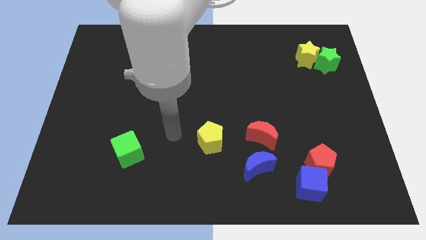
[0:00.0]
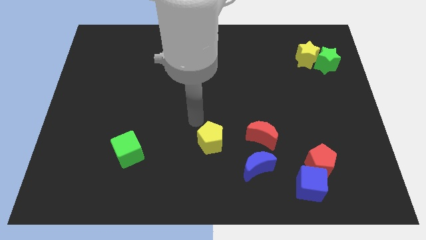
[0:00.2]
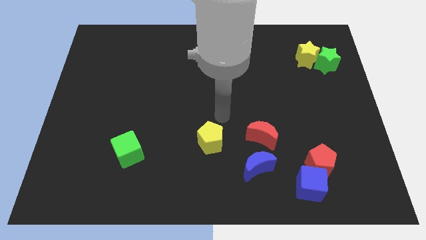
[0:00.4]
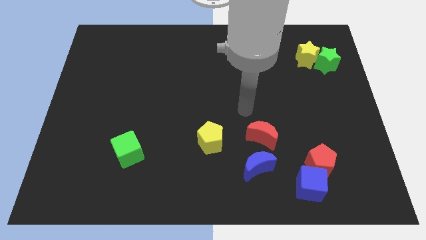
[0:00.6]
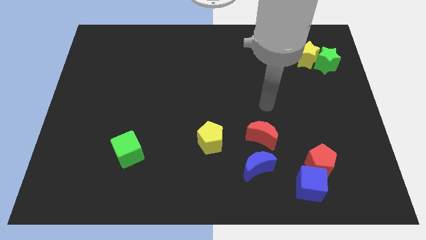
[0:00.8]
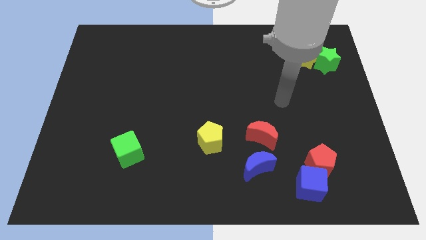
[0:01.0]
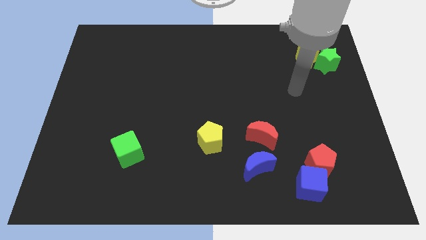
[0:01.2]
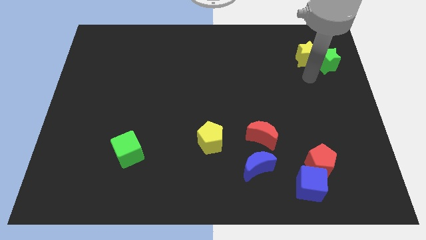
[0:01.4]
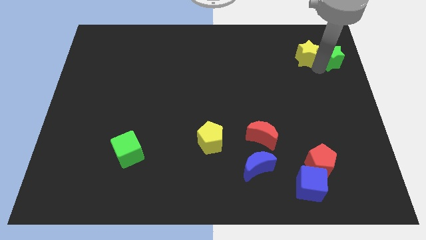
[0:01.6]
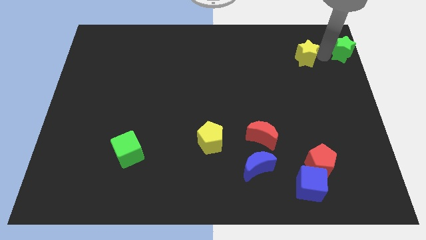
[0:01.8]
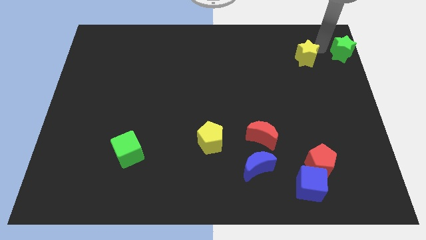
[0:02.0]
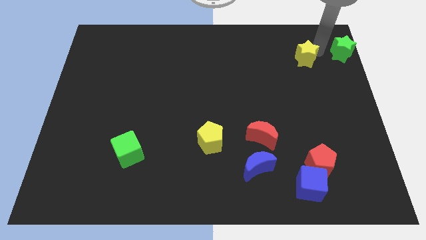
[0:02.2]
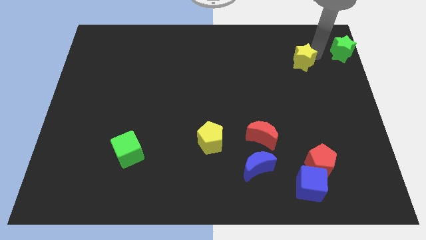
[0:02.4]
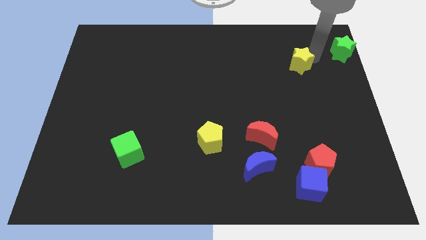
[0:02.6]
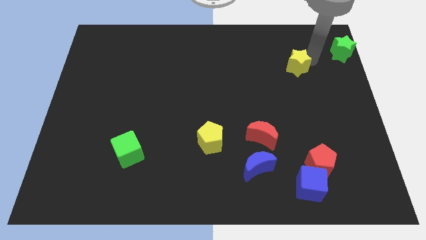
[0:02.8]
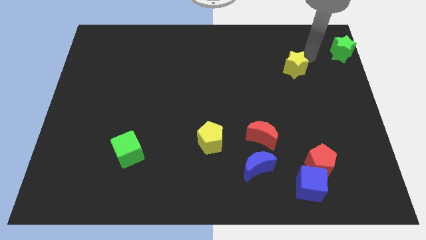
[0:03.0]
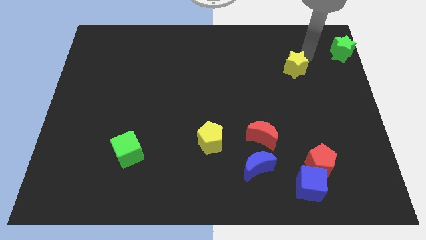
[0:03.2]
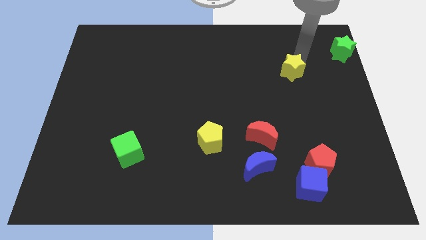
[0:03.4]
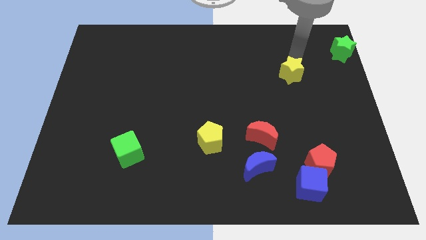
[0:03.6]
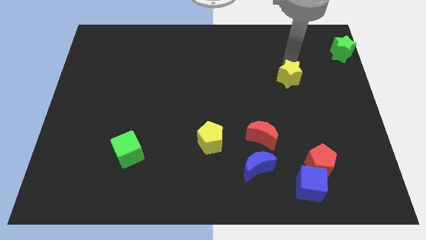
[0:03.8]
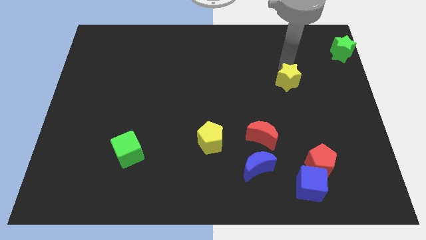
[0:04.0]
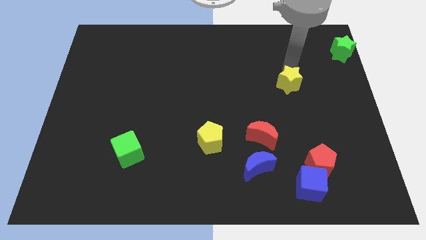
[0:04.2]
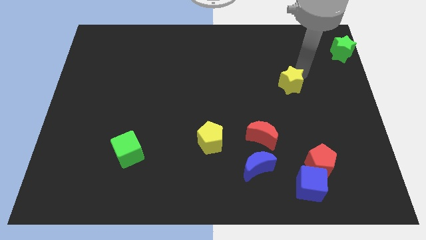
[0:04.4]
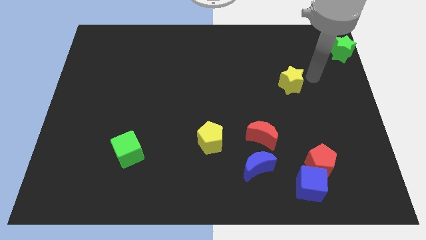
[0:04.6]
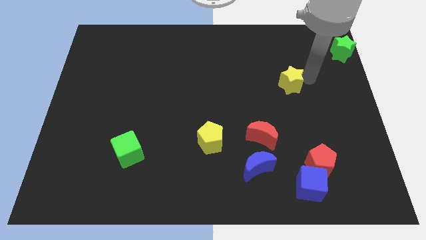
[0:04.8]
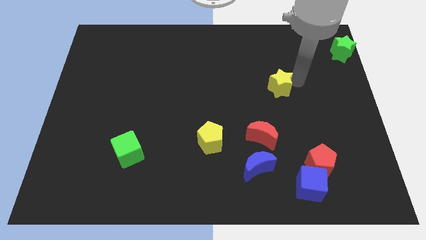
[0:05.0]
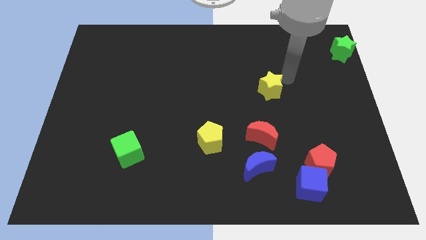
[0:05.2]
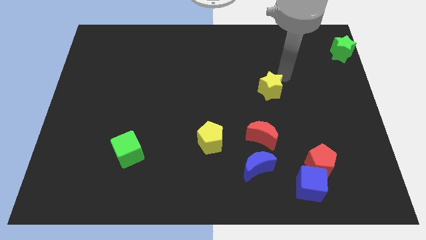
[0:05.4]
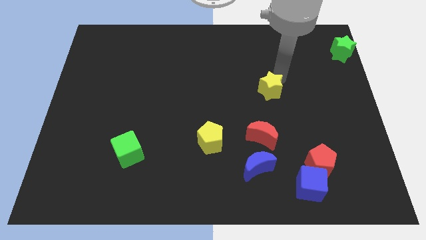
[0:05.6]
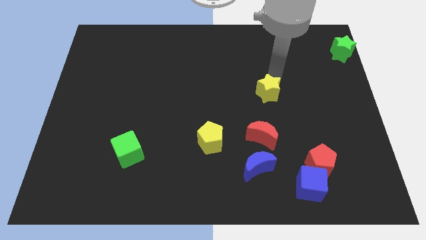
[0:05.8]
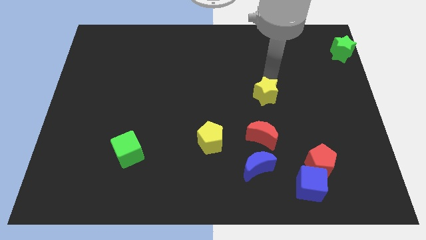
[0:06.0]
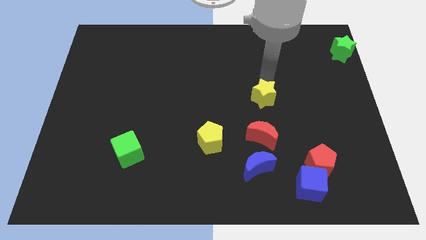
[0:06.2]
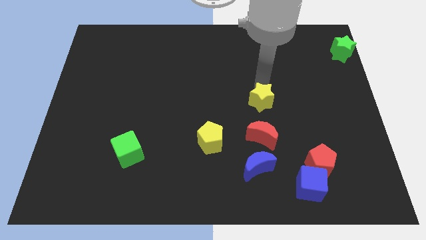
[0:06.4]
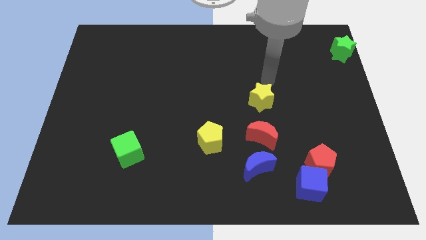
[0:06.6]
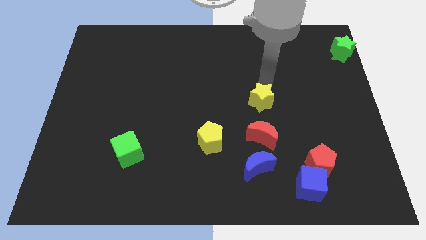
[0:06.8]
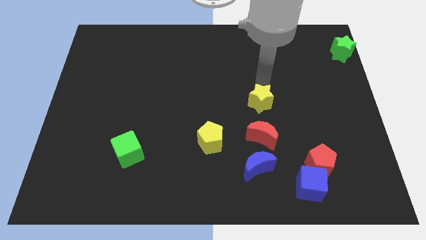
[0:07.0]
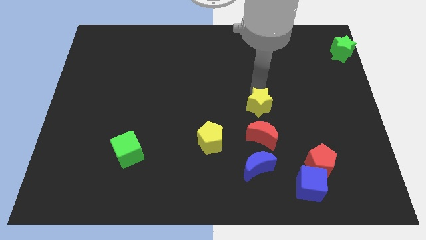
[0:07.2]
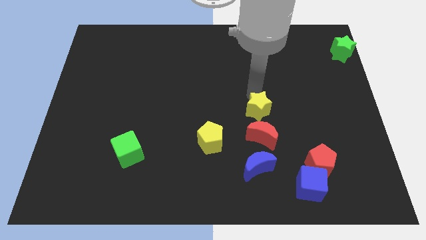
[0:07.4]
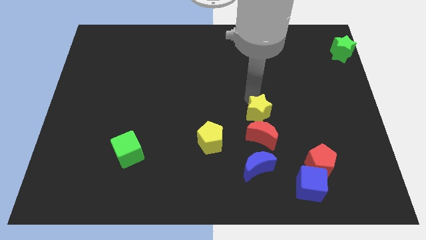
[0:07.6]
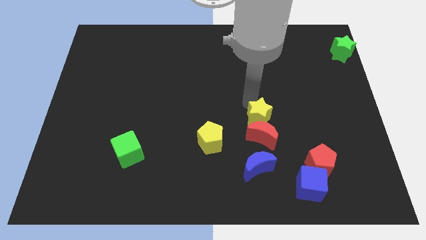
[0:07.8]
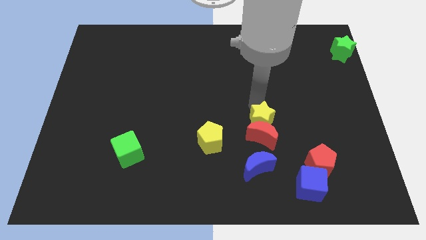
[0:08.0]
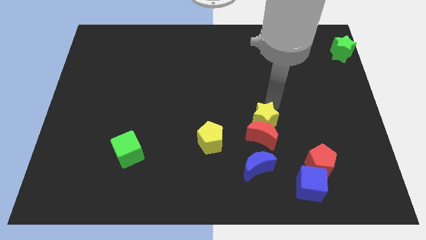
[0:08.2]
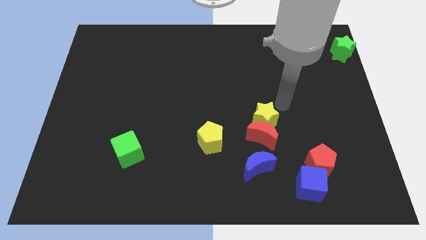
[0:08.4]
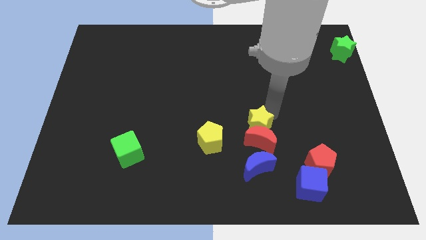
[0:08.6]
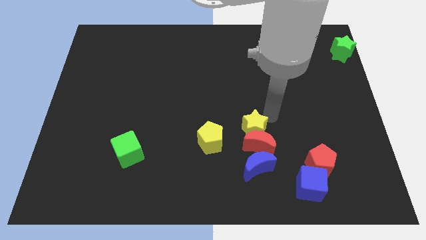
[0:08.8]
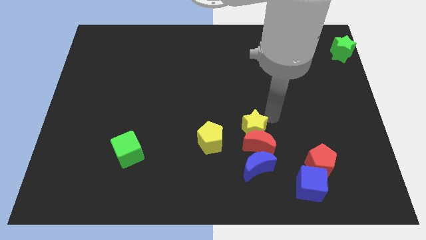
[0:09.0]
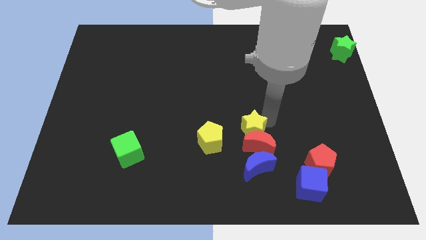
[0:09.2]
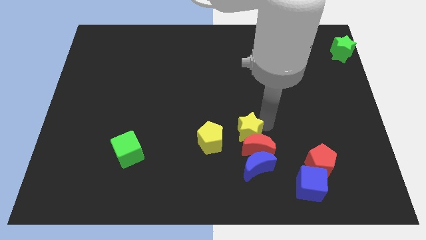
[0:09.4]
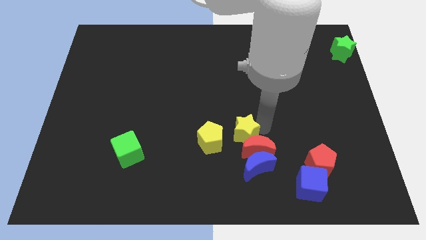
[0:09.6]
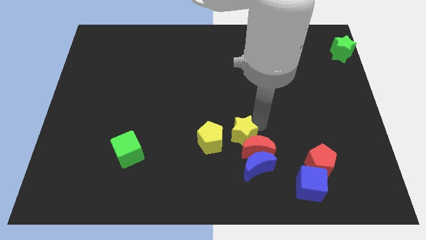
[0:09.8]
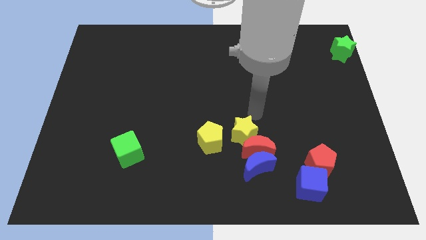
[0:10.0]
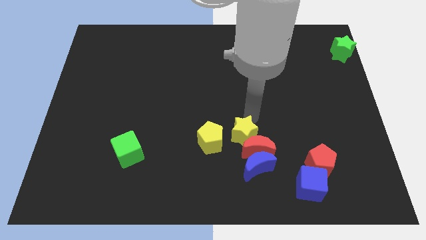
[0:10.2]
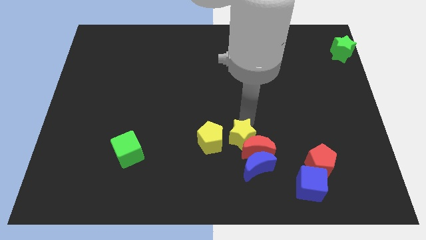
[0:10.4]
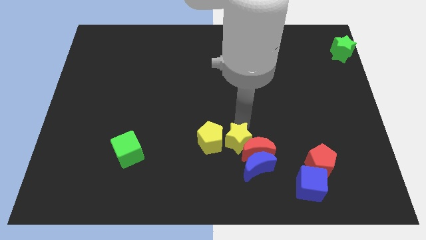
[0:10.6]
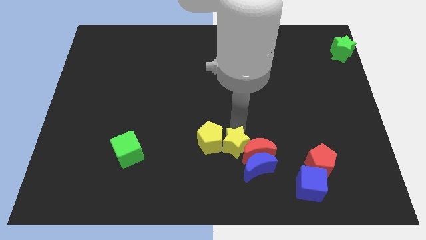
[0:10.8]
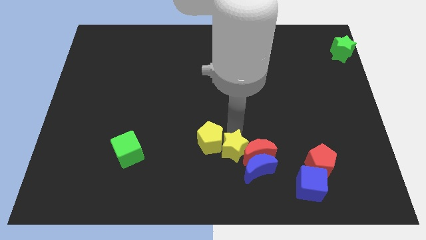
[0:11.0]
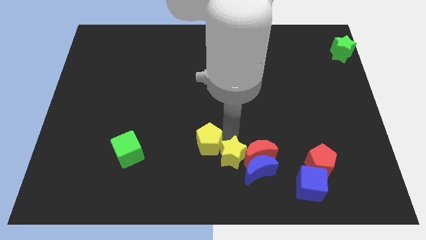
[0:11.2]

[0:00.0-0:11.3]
move the yellow star to the bottom side

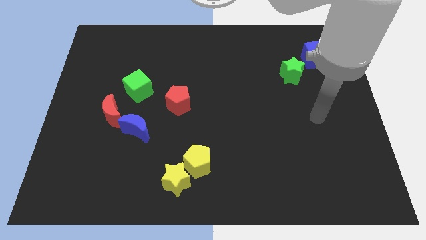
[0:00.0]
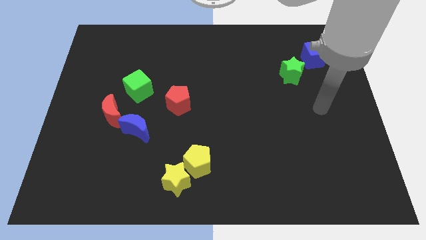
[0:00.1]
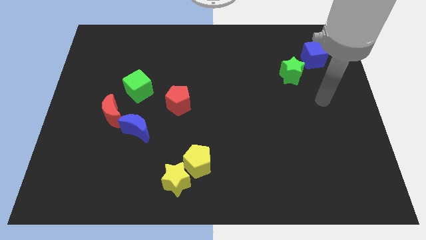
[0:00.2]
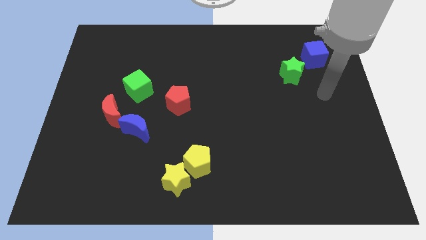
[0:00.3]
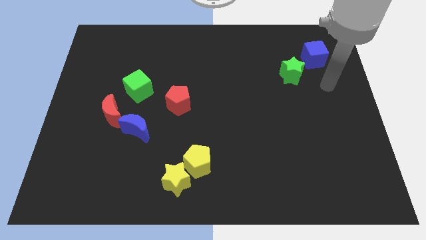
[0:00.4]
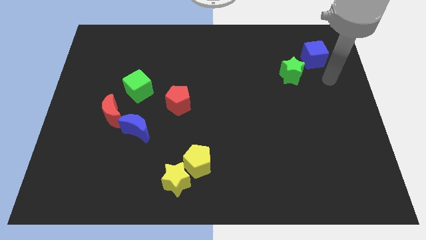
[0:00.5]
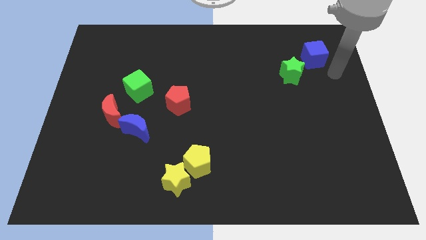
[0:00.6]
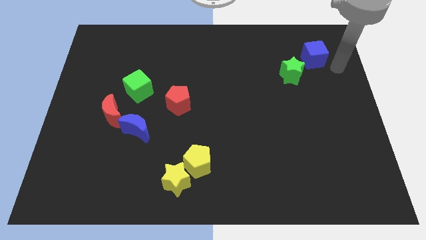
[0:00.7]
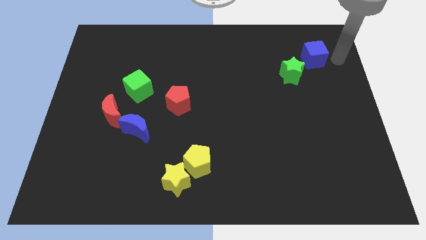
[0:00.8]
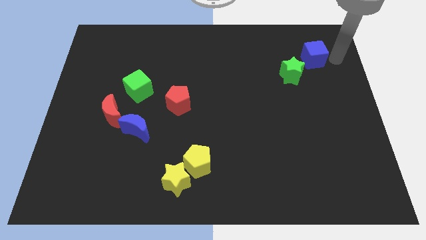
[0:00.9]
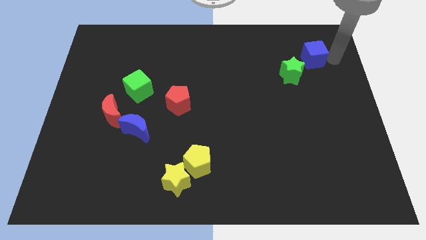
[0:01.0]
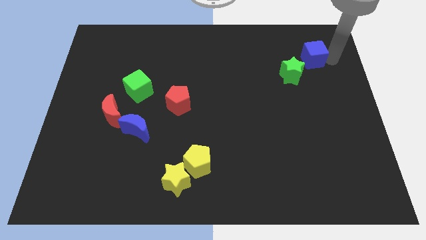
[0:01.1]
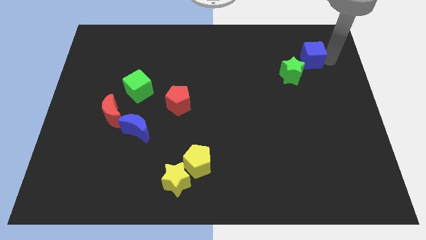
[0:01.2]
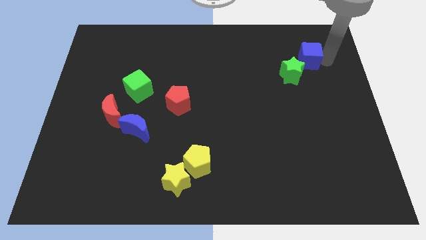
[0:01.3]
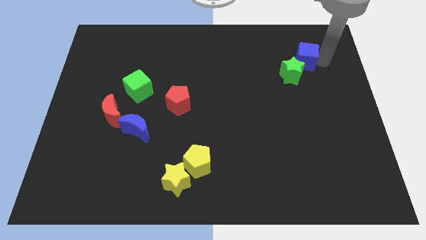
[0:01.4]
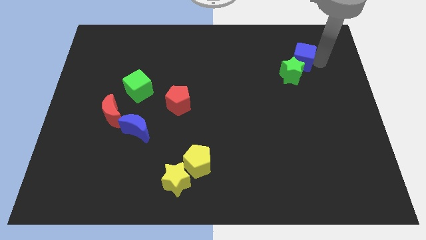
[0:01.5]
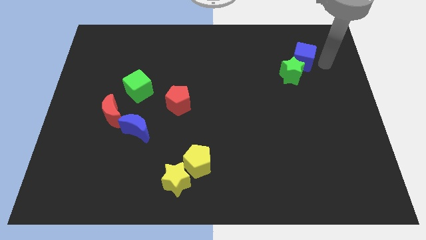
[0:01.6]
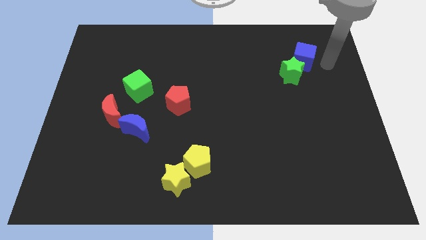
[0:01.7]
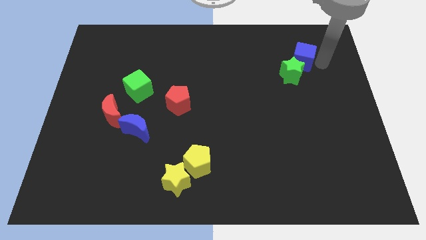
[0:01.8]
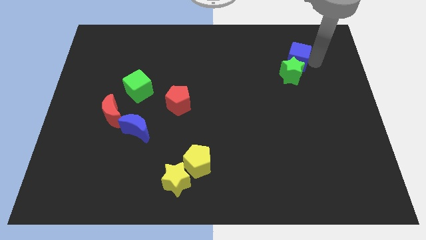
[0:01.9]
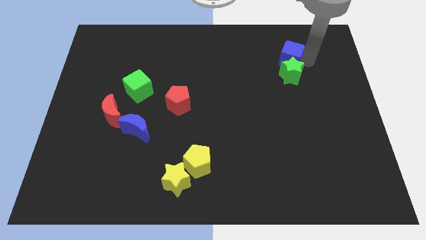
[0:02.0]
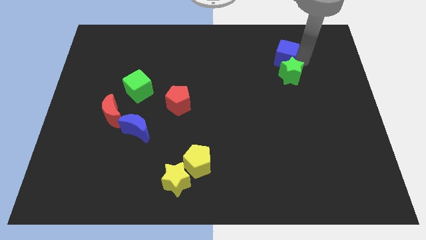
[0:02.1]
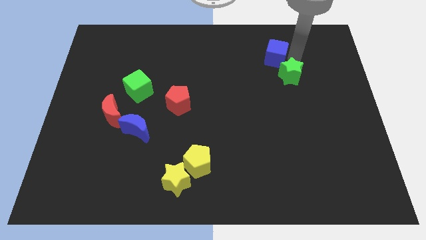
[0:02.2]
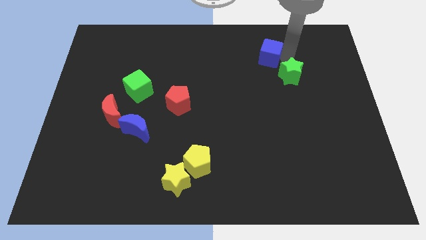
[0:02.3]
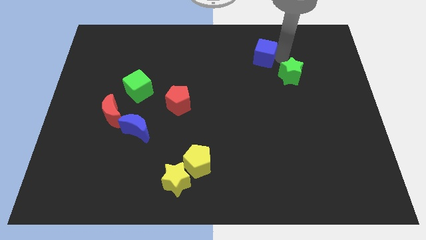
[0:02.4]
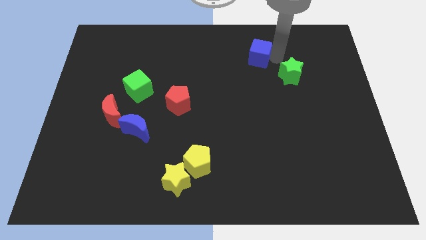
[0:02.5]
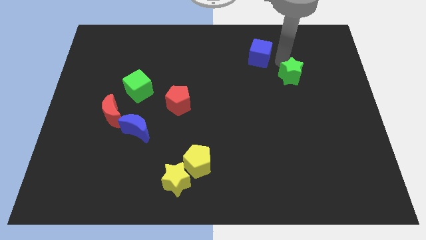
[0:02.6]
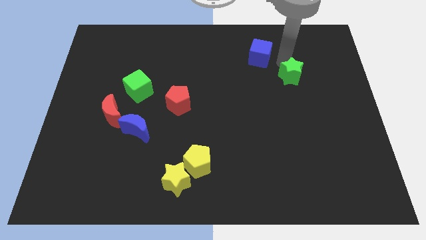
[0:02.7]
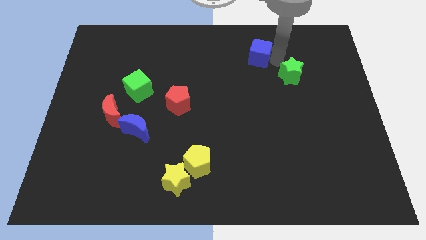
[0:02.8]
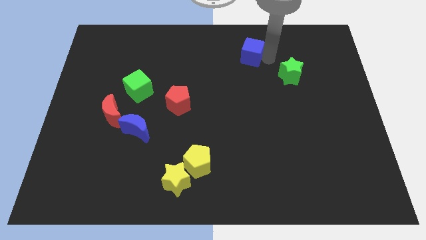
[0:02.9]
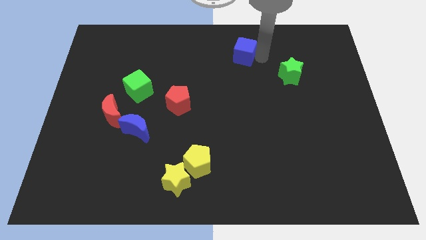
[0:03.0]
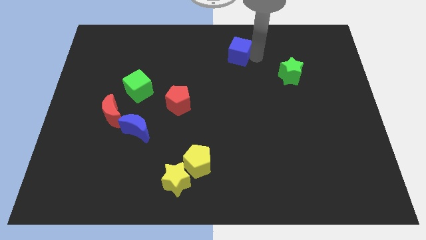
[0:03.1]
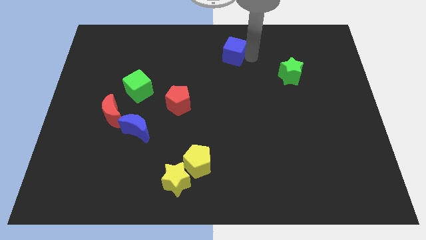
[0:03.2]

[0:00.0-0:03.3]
slide the blue cube to the top side
